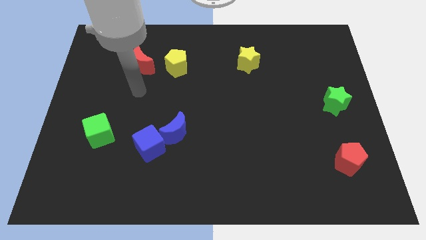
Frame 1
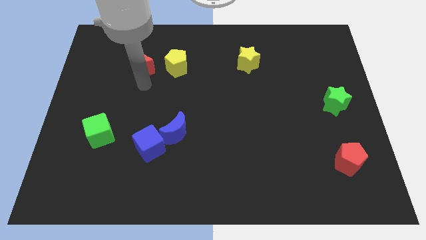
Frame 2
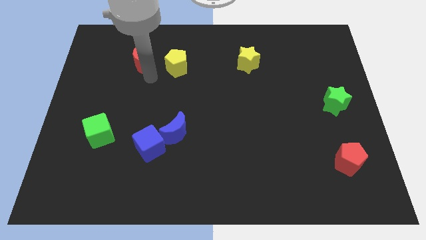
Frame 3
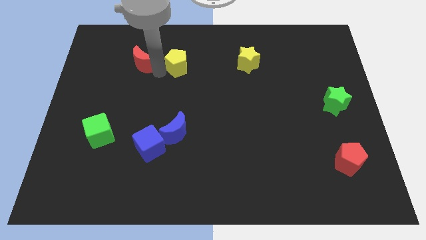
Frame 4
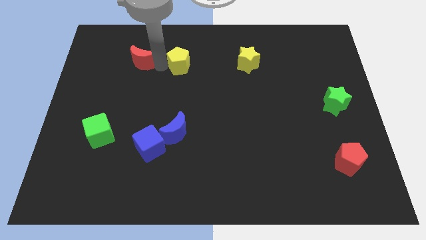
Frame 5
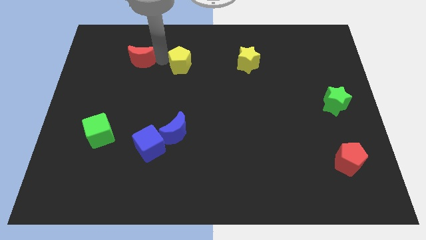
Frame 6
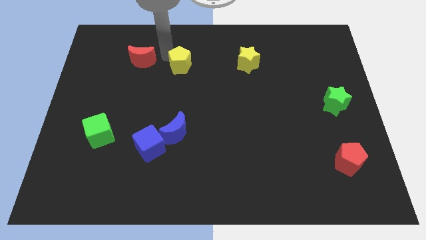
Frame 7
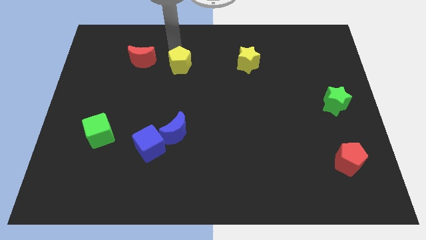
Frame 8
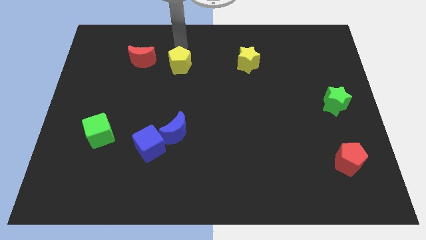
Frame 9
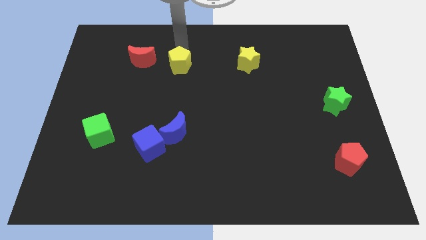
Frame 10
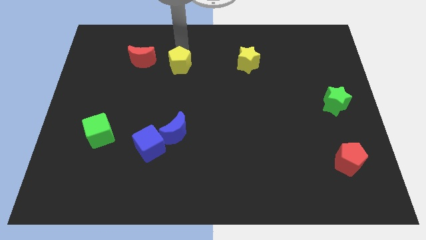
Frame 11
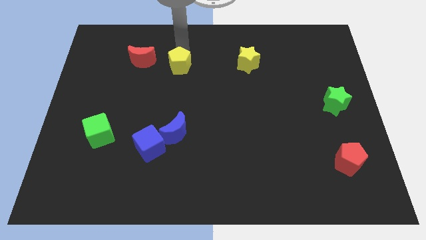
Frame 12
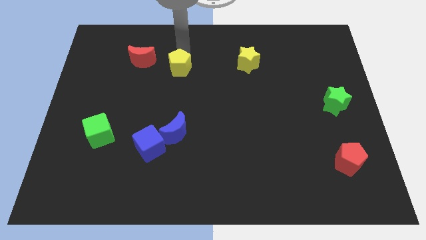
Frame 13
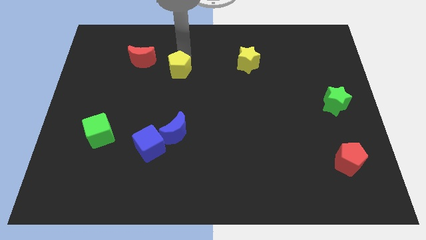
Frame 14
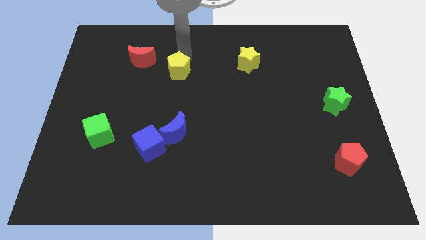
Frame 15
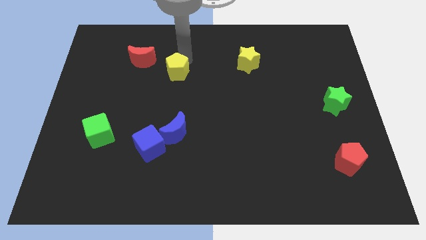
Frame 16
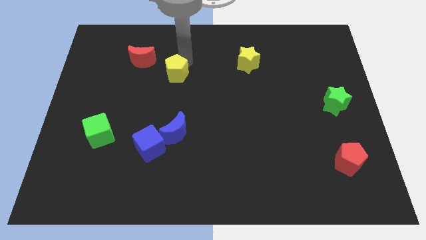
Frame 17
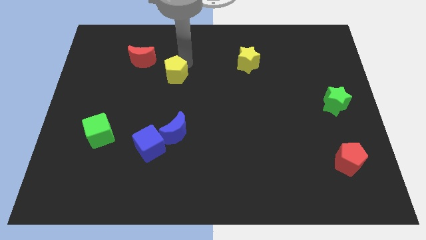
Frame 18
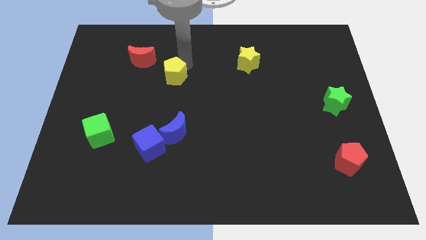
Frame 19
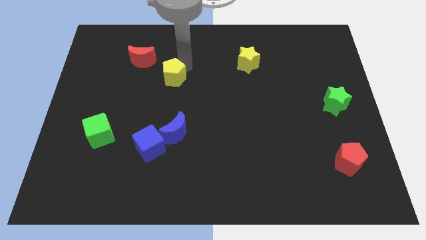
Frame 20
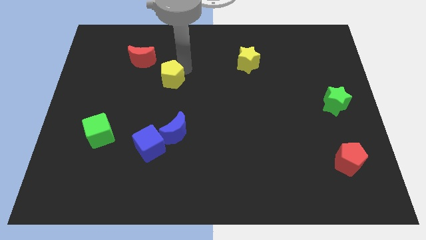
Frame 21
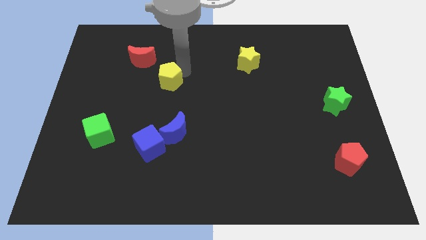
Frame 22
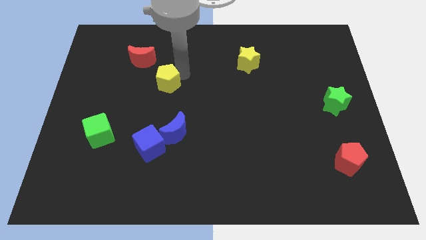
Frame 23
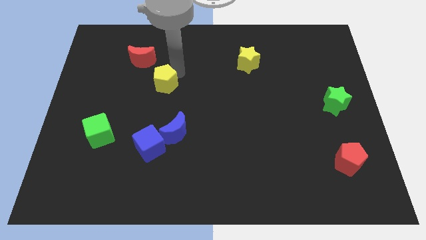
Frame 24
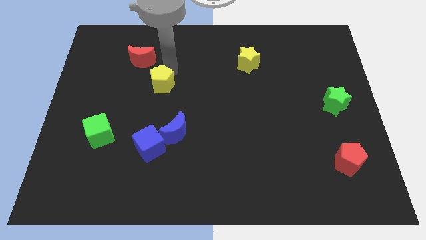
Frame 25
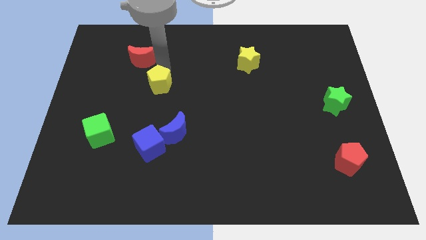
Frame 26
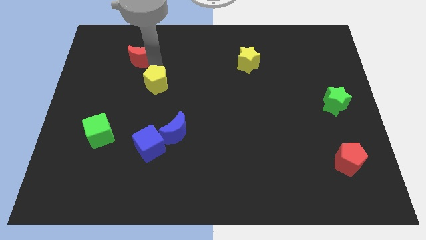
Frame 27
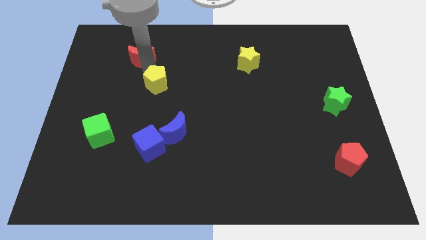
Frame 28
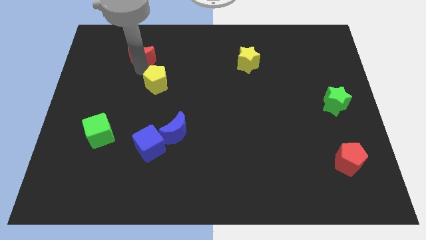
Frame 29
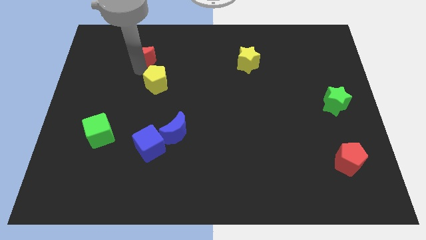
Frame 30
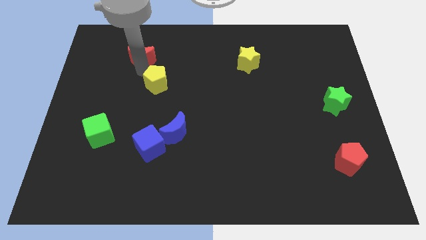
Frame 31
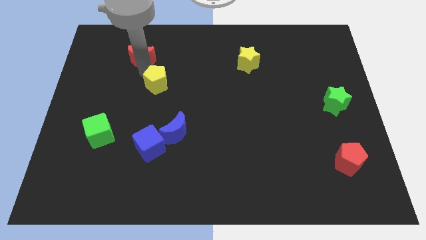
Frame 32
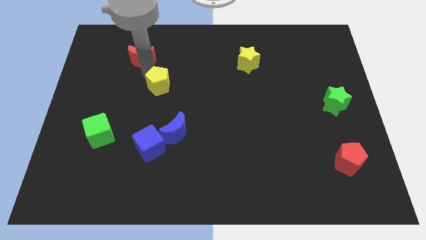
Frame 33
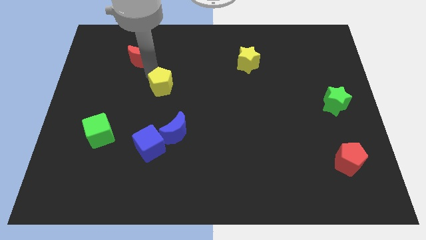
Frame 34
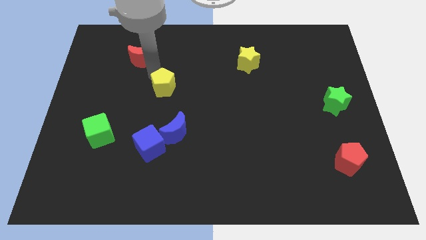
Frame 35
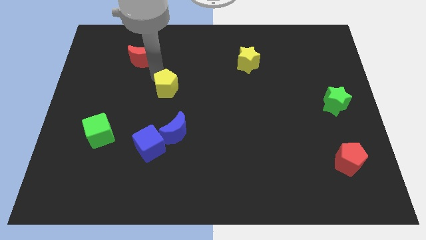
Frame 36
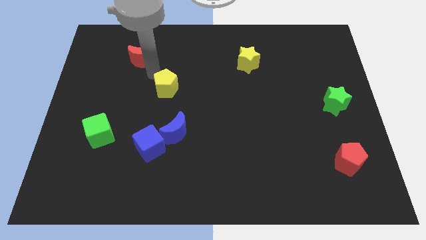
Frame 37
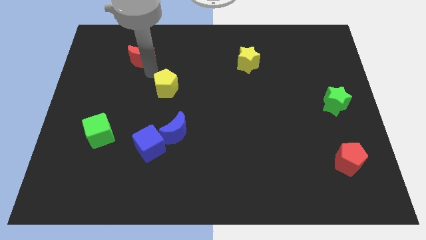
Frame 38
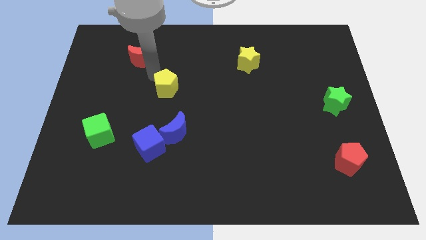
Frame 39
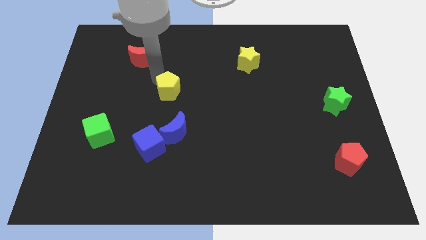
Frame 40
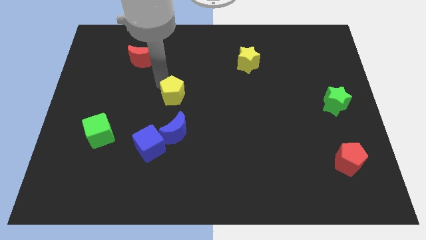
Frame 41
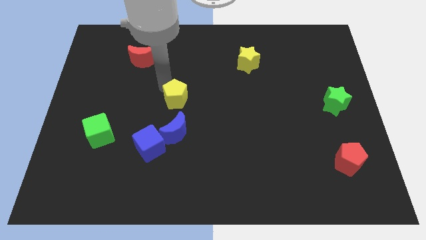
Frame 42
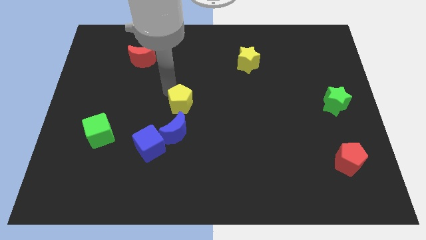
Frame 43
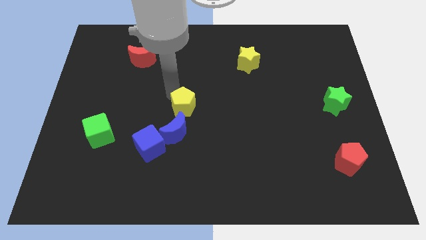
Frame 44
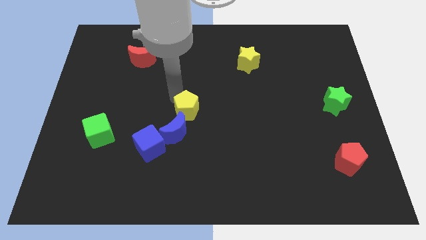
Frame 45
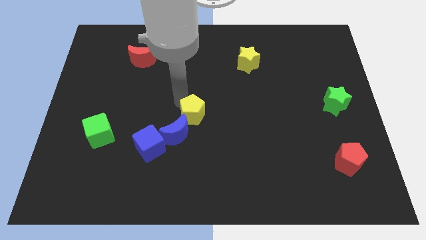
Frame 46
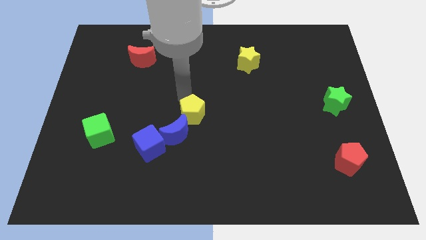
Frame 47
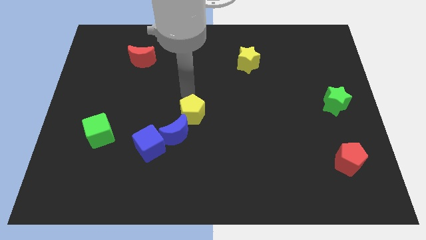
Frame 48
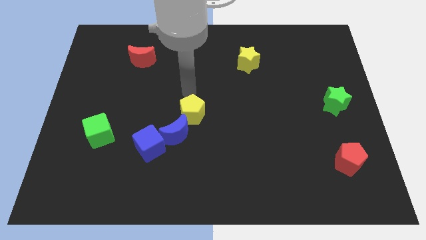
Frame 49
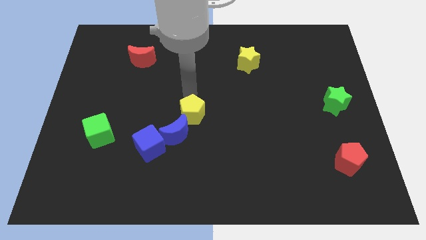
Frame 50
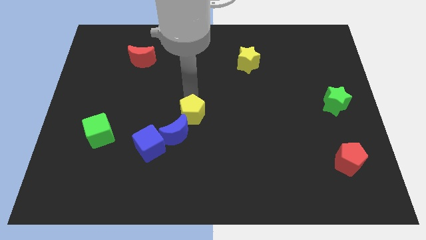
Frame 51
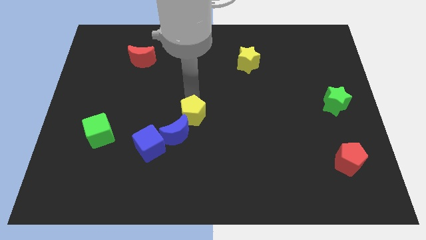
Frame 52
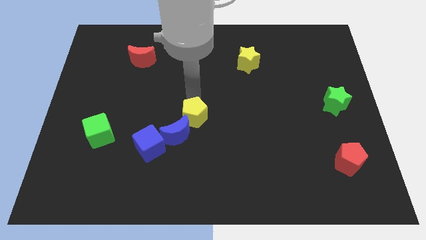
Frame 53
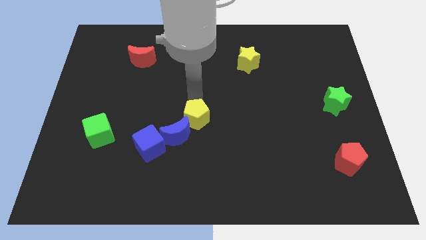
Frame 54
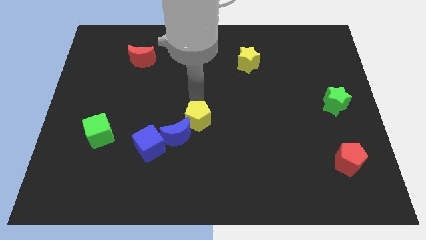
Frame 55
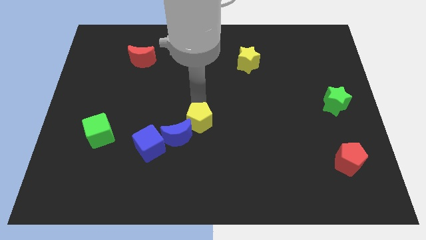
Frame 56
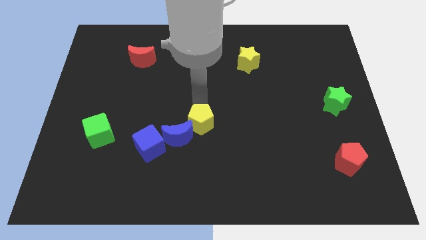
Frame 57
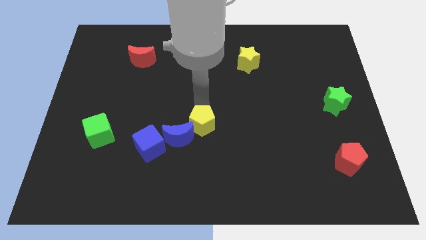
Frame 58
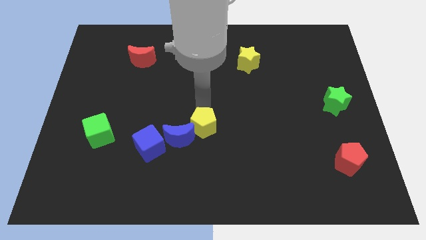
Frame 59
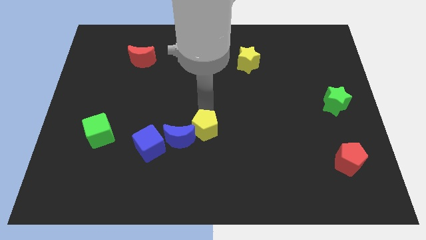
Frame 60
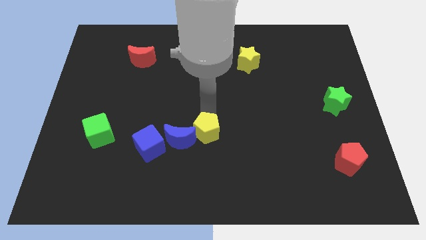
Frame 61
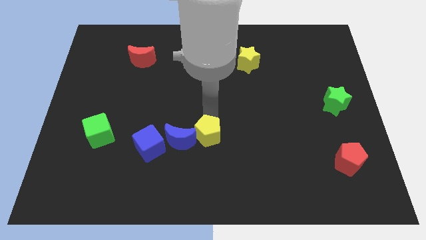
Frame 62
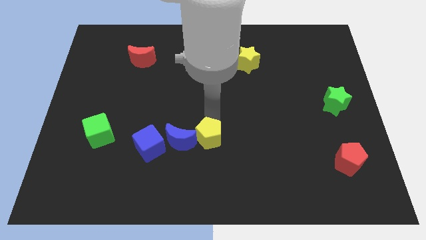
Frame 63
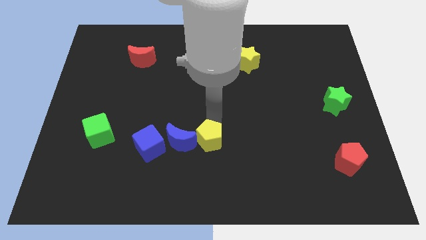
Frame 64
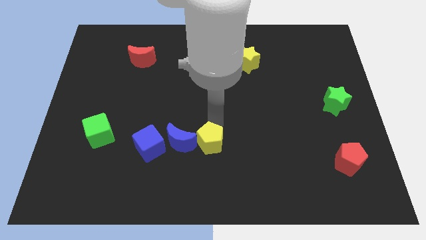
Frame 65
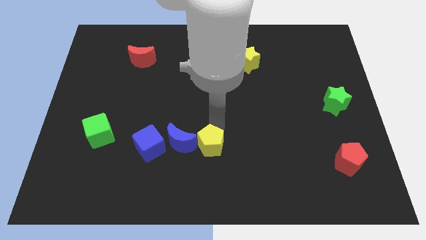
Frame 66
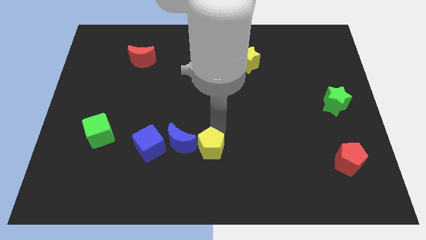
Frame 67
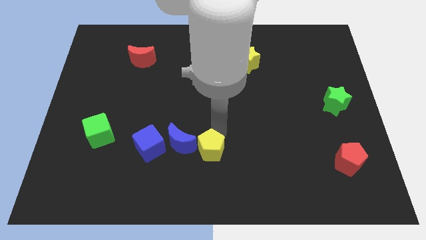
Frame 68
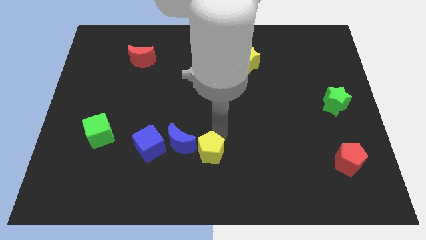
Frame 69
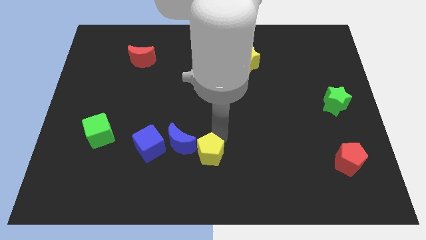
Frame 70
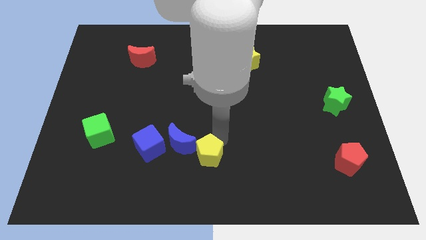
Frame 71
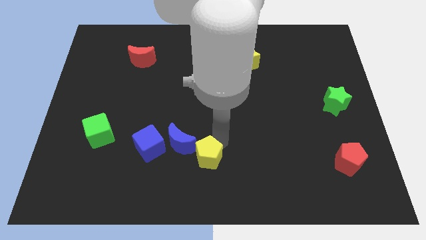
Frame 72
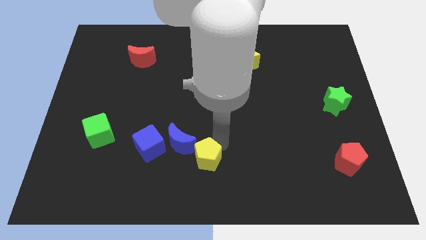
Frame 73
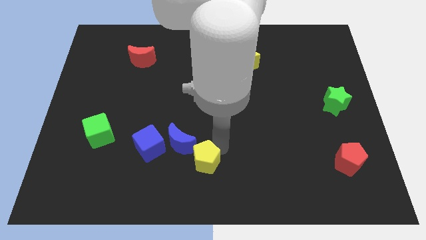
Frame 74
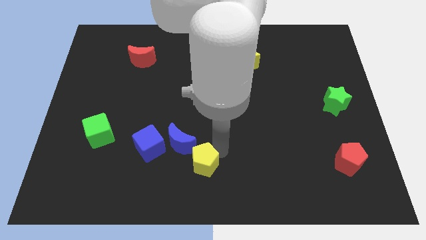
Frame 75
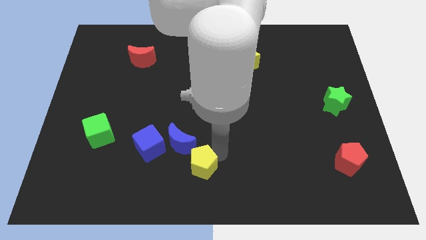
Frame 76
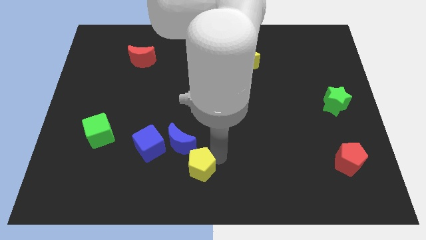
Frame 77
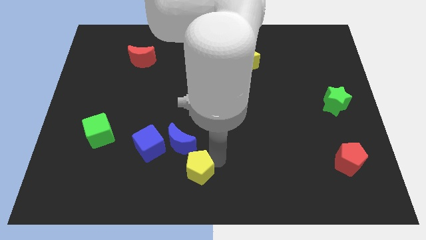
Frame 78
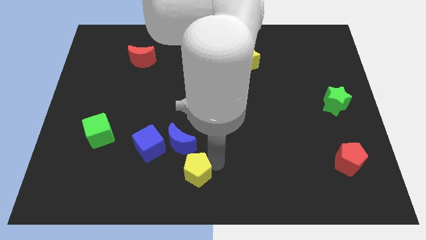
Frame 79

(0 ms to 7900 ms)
slide the yellow pentagon to the bottom right of the blue cube
